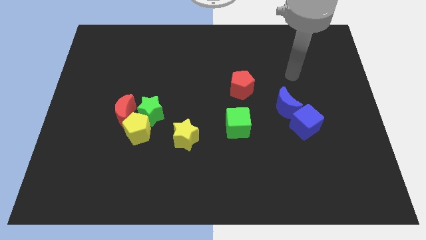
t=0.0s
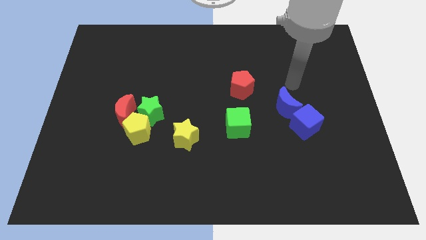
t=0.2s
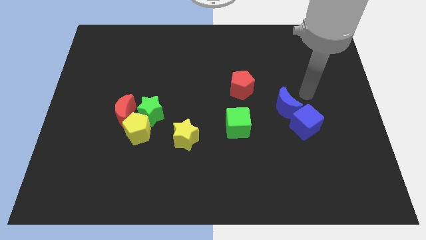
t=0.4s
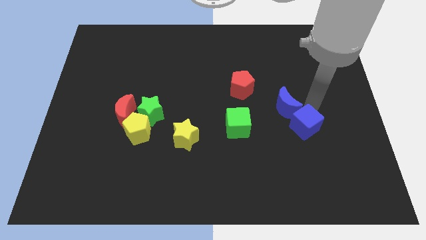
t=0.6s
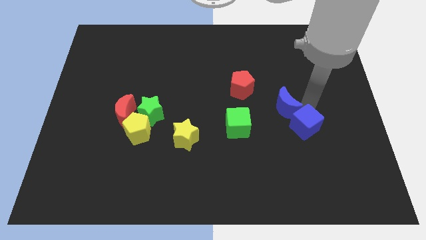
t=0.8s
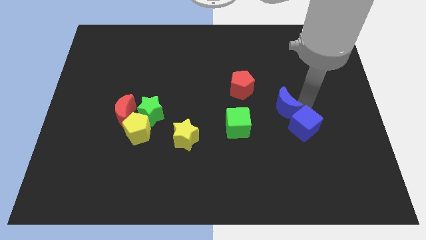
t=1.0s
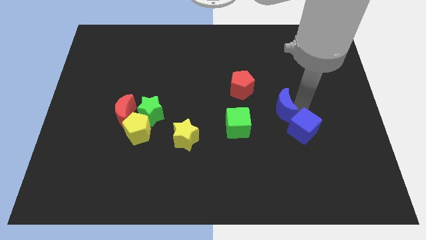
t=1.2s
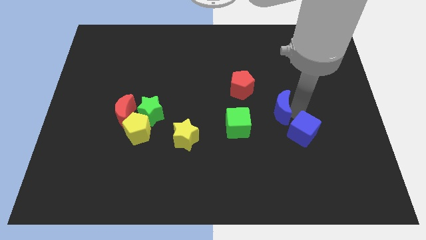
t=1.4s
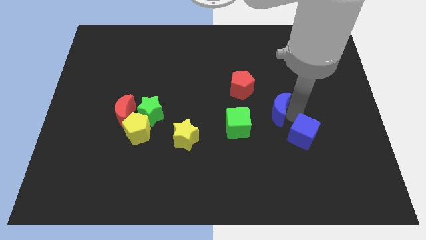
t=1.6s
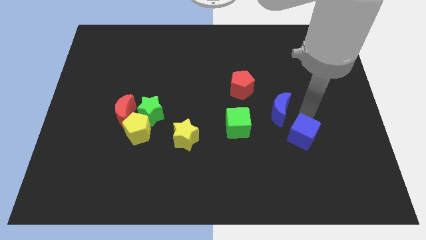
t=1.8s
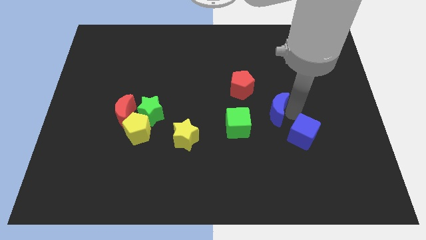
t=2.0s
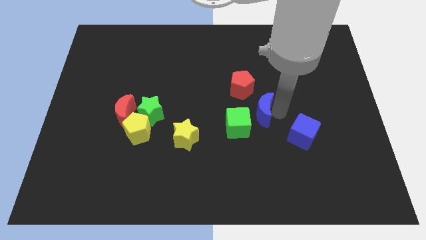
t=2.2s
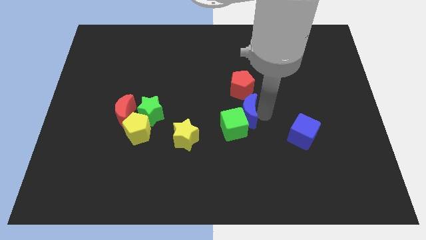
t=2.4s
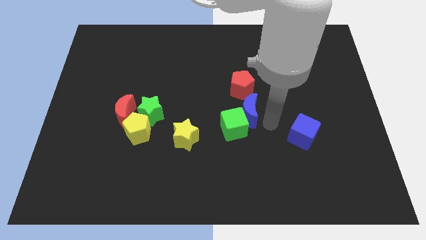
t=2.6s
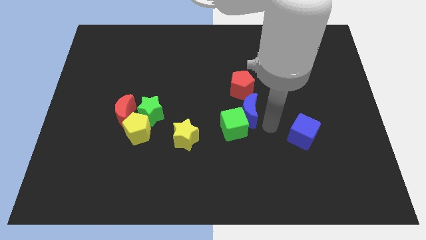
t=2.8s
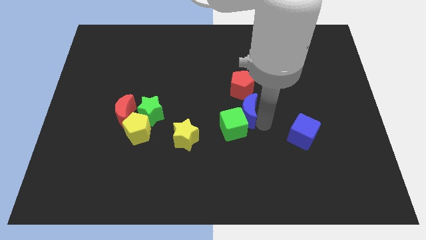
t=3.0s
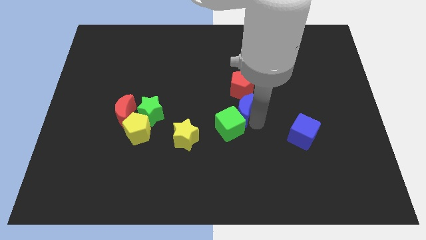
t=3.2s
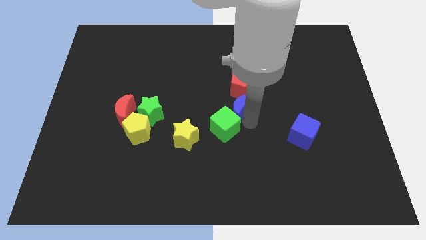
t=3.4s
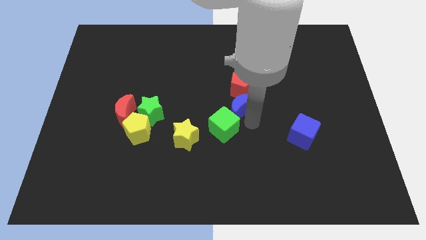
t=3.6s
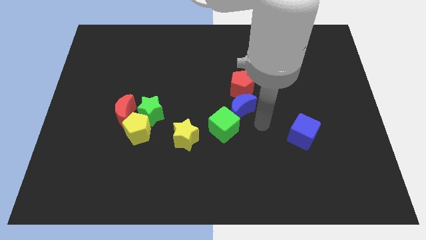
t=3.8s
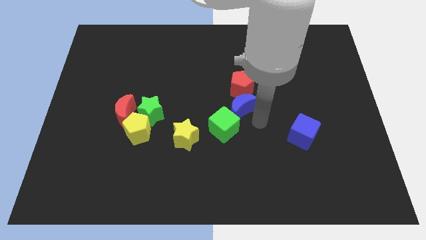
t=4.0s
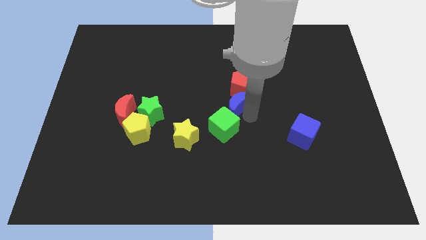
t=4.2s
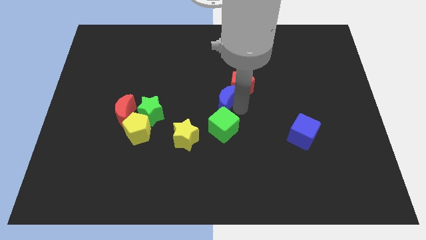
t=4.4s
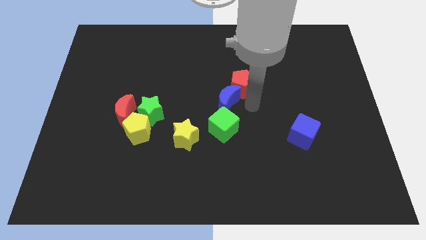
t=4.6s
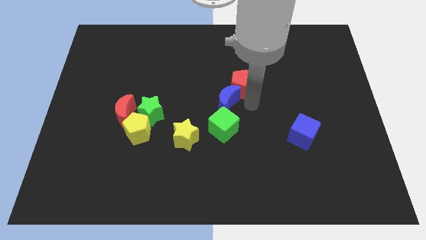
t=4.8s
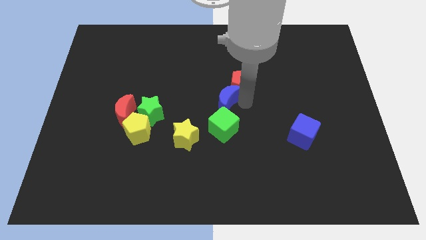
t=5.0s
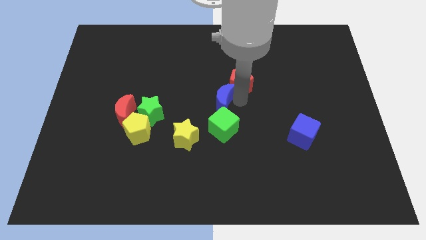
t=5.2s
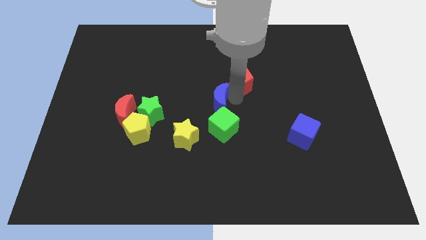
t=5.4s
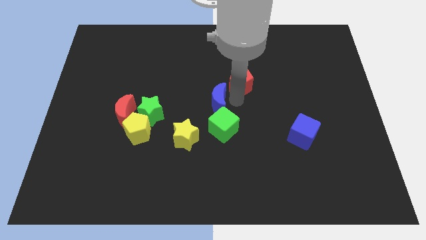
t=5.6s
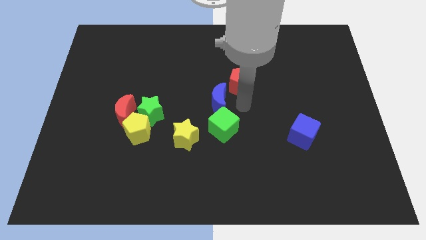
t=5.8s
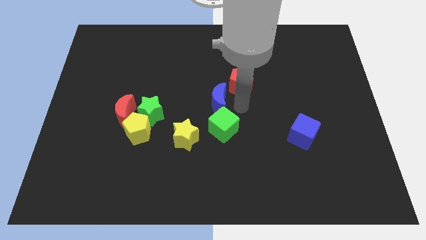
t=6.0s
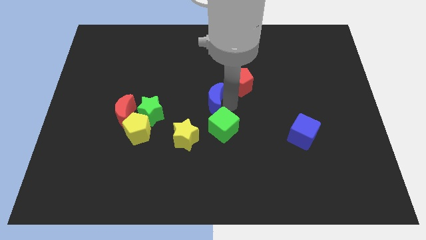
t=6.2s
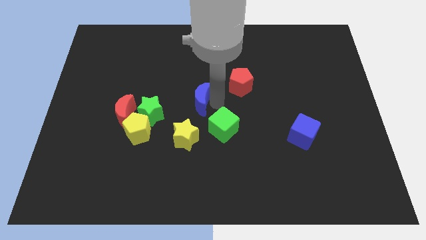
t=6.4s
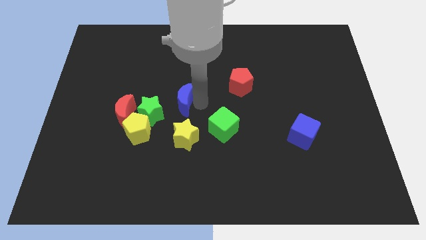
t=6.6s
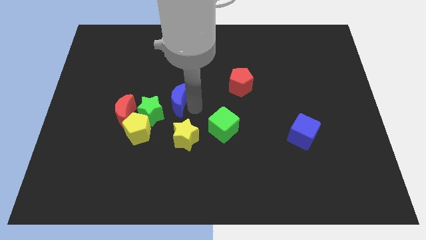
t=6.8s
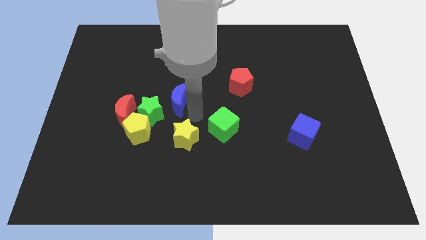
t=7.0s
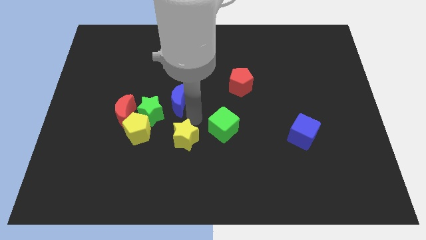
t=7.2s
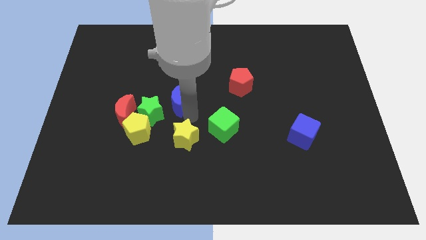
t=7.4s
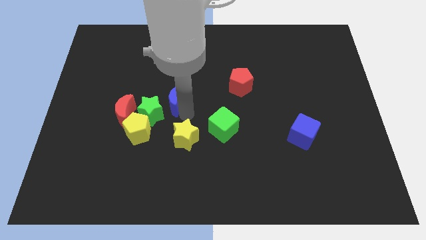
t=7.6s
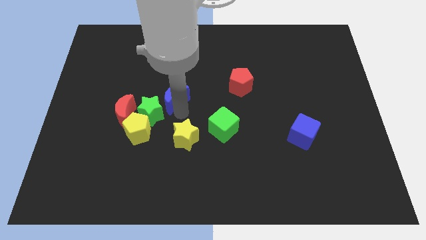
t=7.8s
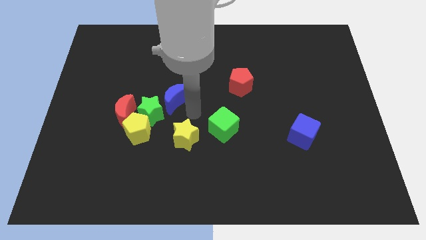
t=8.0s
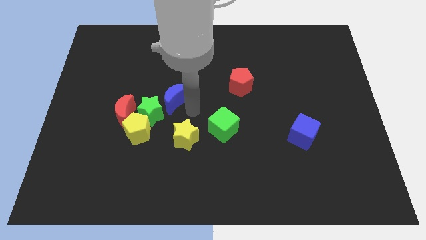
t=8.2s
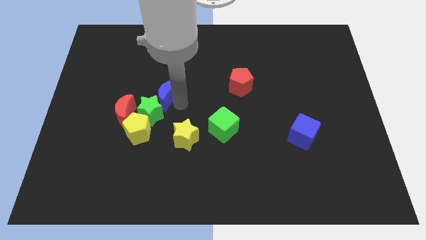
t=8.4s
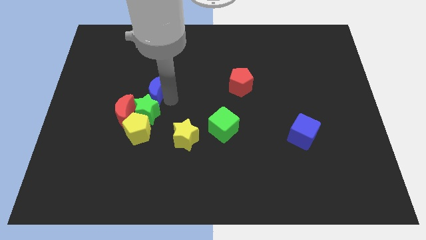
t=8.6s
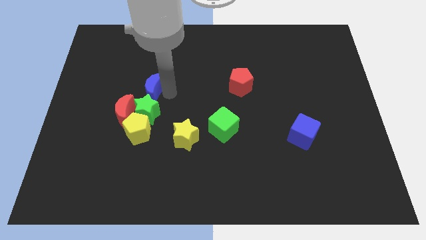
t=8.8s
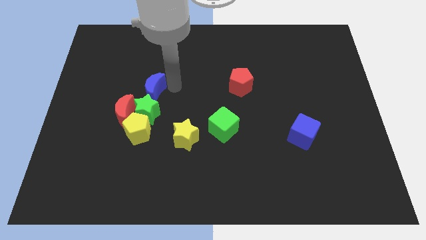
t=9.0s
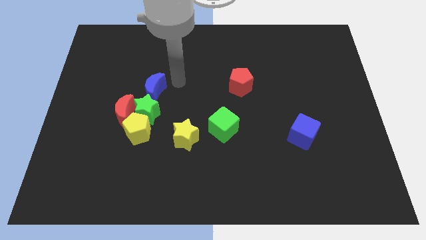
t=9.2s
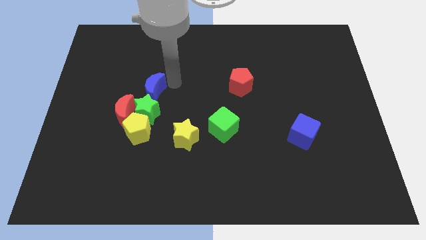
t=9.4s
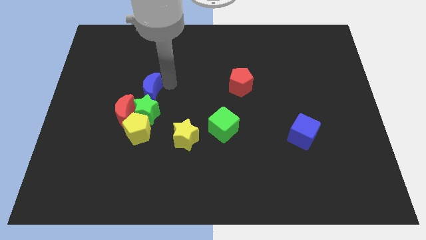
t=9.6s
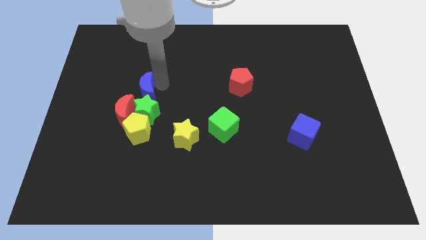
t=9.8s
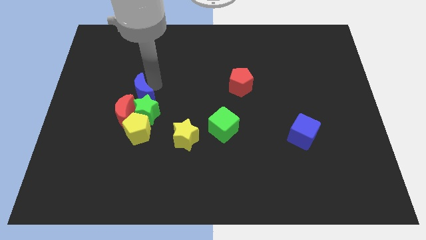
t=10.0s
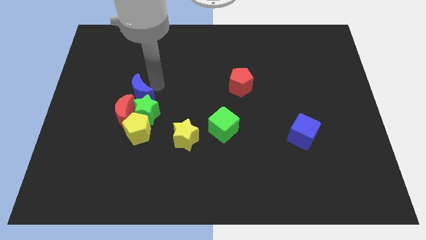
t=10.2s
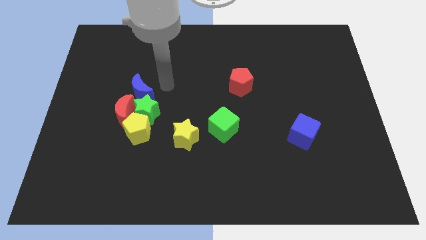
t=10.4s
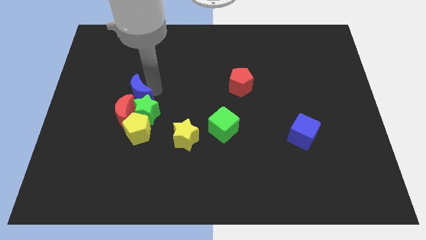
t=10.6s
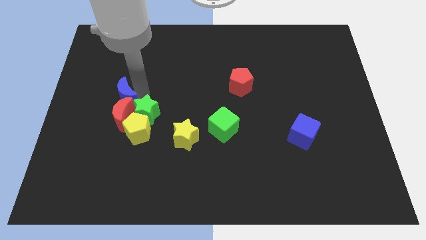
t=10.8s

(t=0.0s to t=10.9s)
move the blue moon left of the green star
